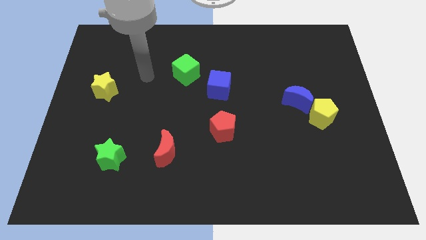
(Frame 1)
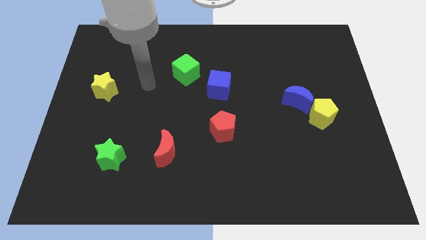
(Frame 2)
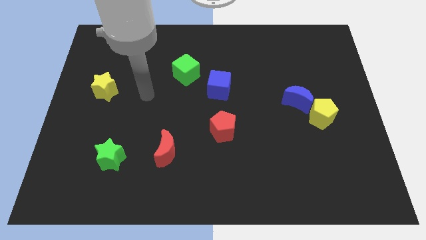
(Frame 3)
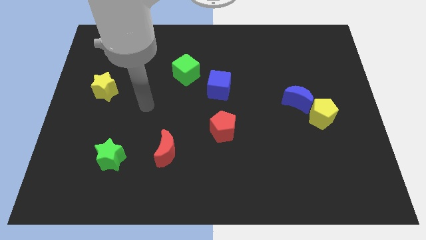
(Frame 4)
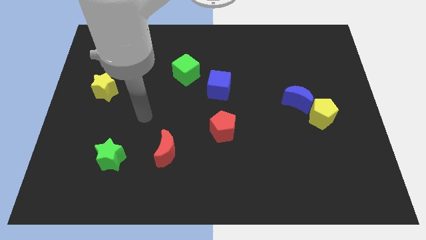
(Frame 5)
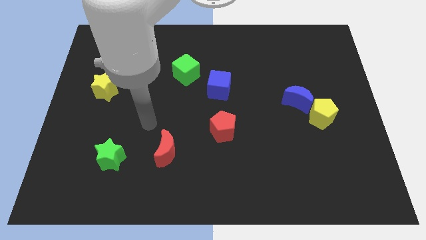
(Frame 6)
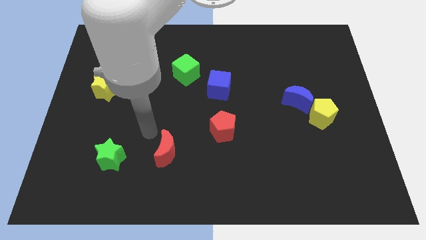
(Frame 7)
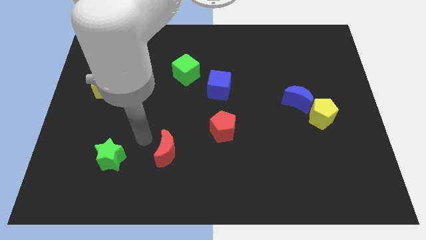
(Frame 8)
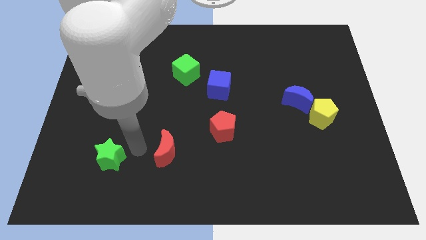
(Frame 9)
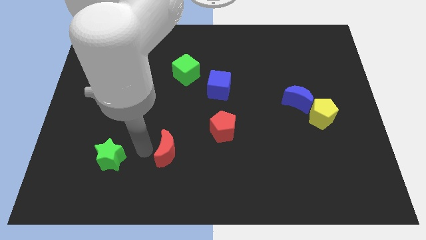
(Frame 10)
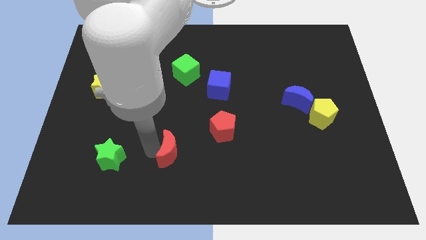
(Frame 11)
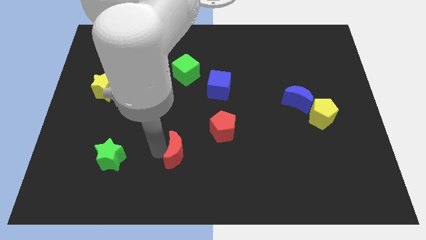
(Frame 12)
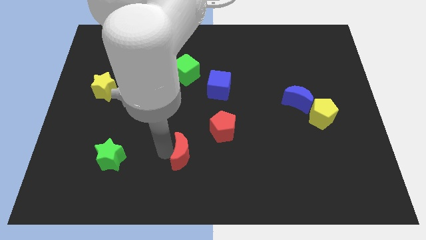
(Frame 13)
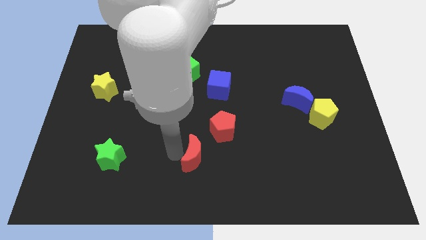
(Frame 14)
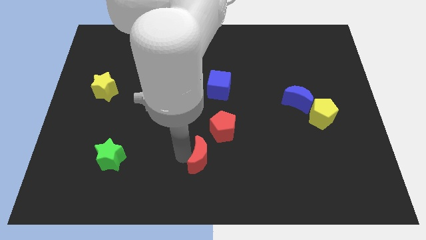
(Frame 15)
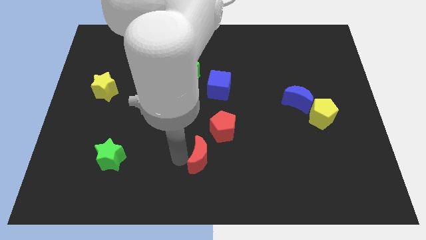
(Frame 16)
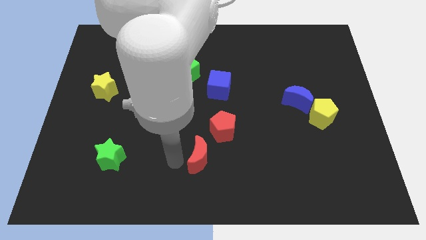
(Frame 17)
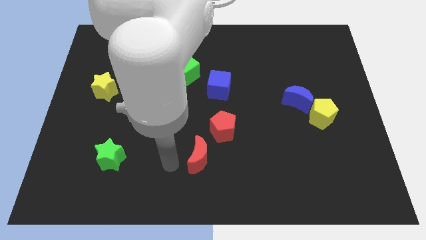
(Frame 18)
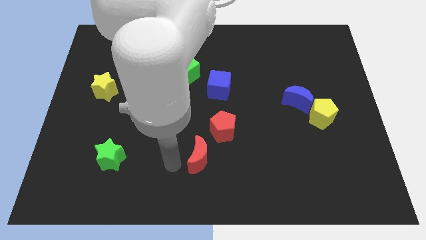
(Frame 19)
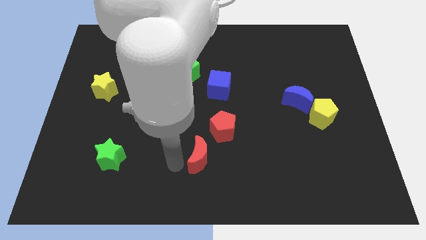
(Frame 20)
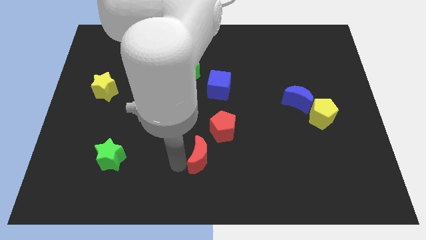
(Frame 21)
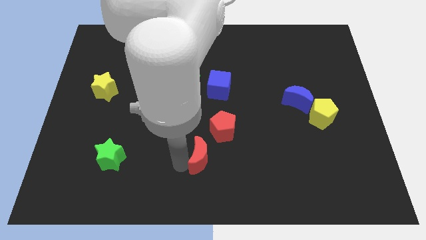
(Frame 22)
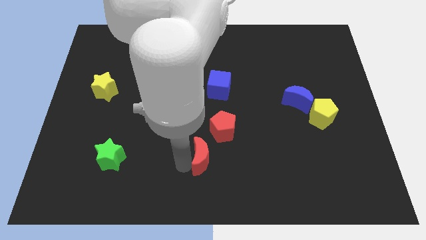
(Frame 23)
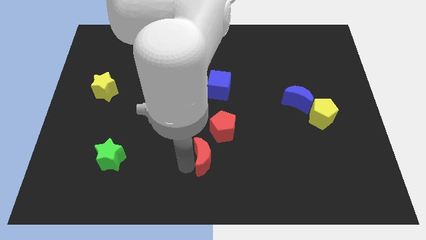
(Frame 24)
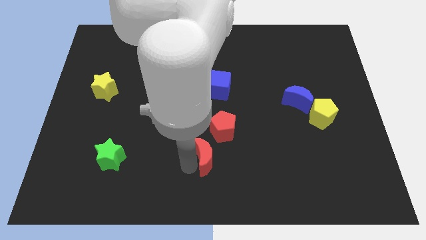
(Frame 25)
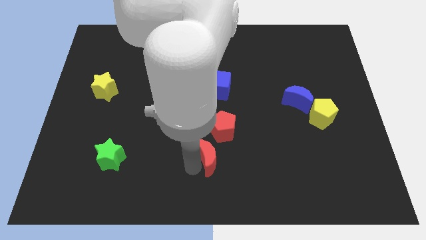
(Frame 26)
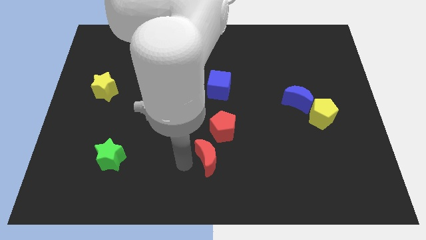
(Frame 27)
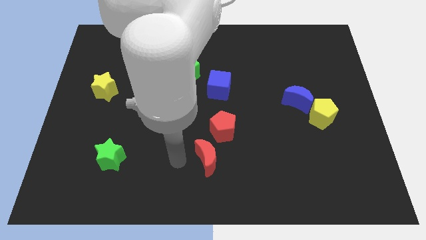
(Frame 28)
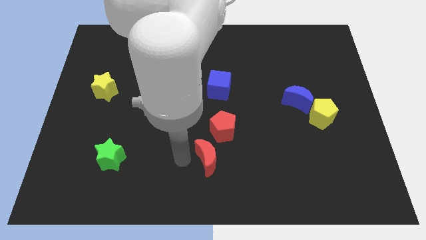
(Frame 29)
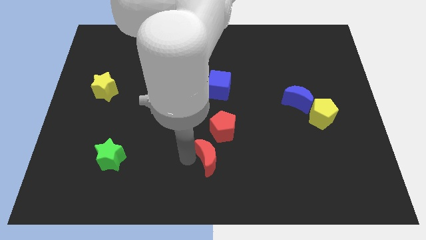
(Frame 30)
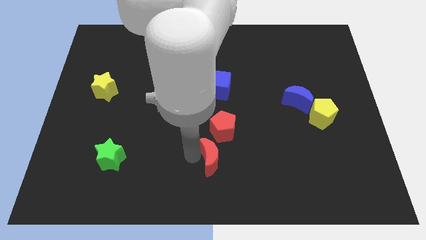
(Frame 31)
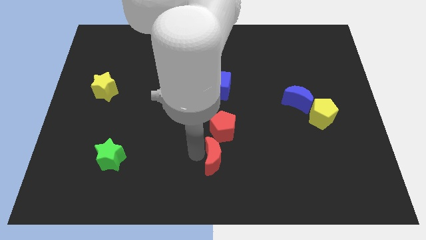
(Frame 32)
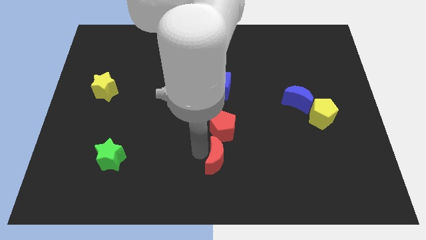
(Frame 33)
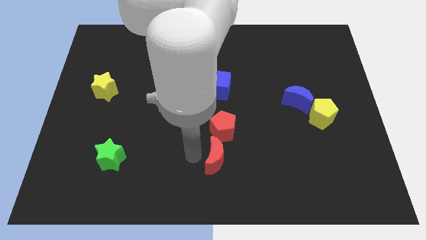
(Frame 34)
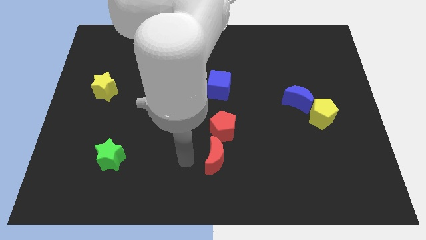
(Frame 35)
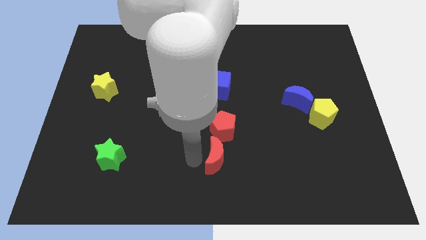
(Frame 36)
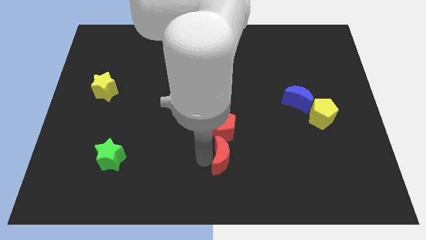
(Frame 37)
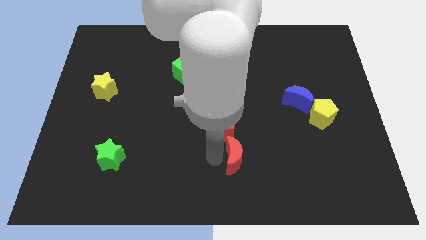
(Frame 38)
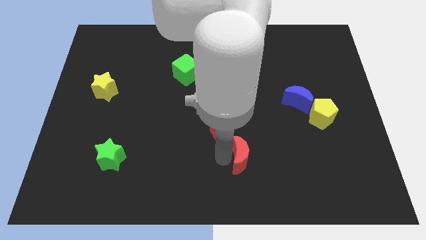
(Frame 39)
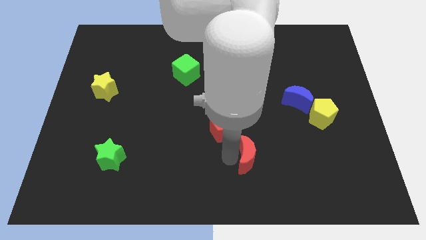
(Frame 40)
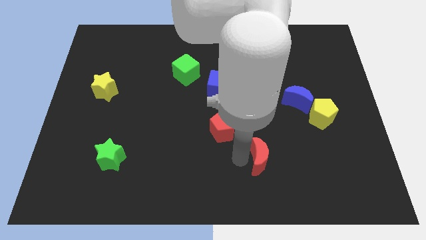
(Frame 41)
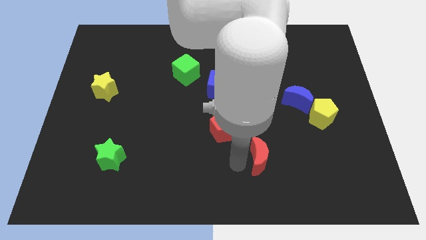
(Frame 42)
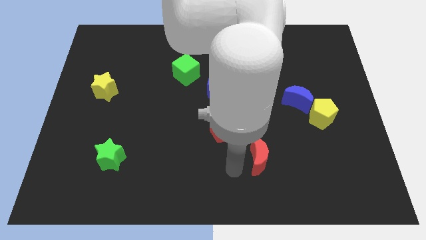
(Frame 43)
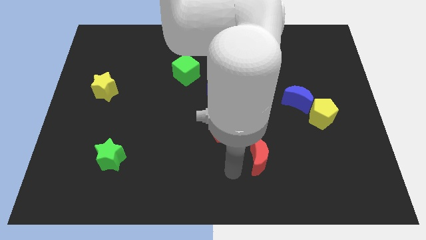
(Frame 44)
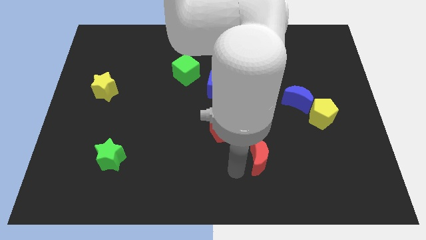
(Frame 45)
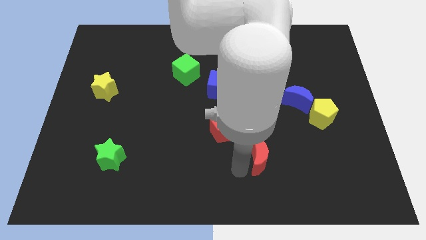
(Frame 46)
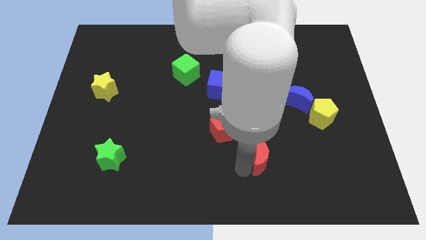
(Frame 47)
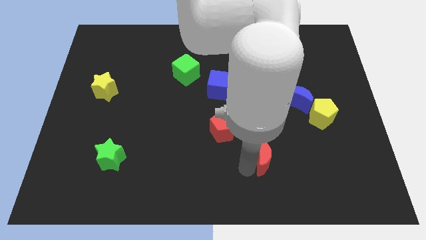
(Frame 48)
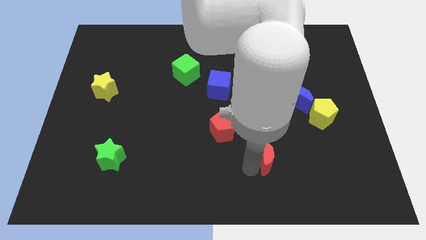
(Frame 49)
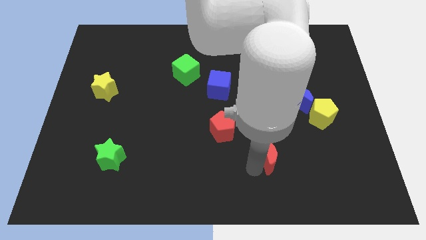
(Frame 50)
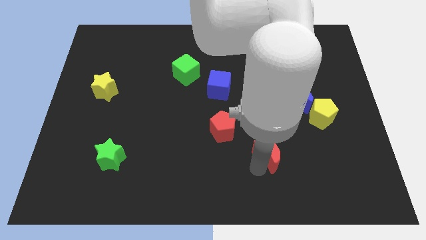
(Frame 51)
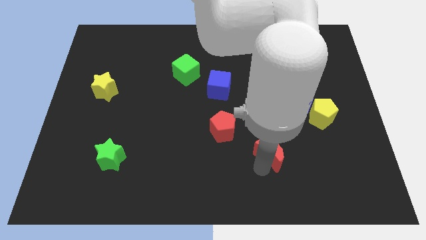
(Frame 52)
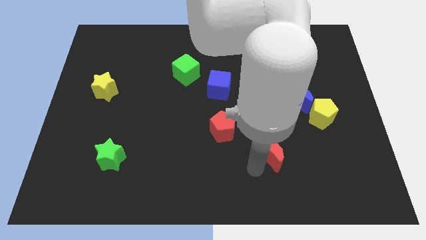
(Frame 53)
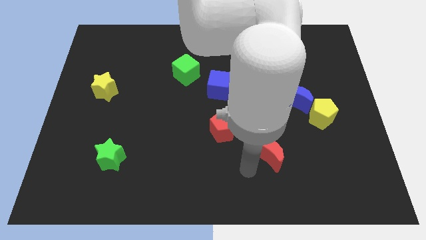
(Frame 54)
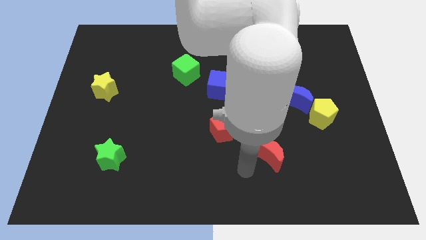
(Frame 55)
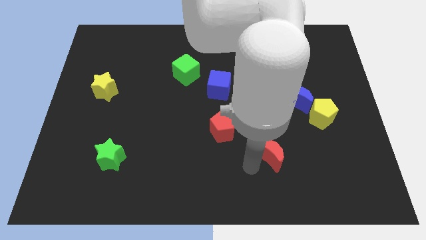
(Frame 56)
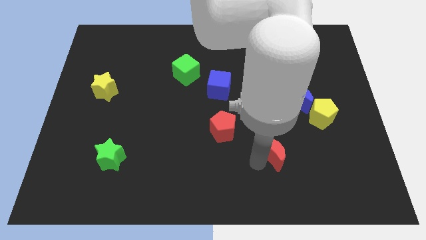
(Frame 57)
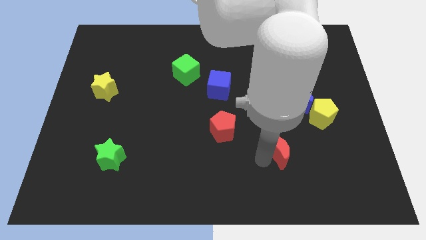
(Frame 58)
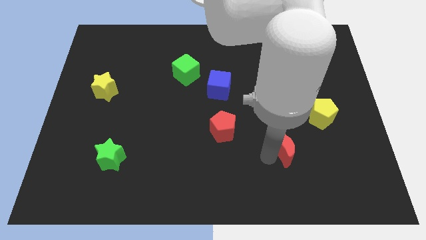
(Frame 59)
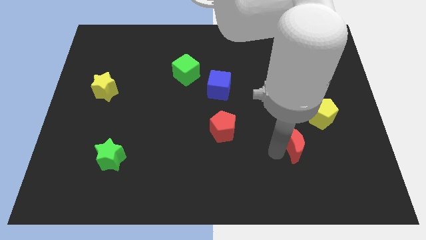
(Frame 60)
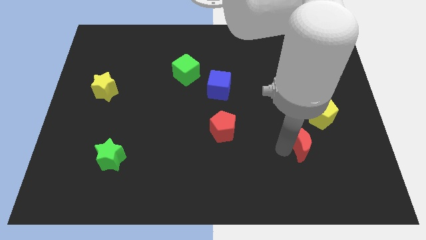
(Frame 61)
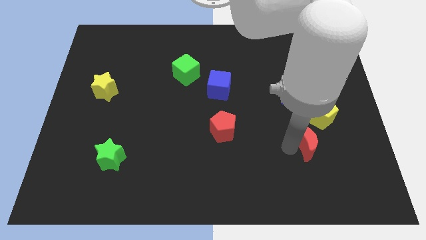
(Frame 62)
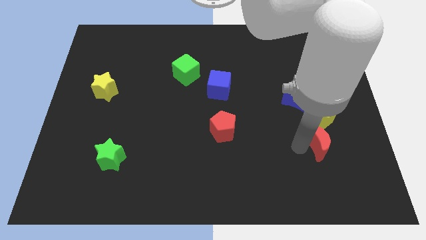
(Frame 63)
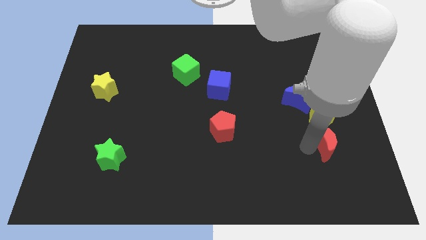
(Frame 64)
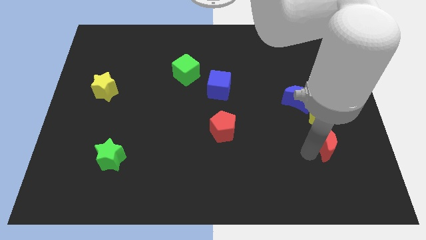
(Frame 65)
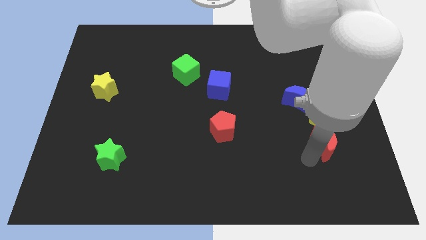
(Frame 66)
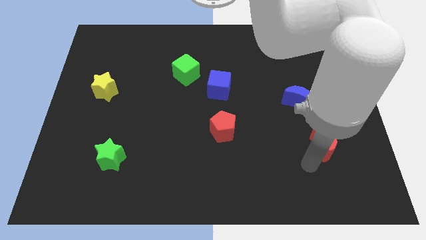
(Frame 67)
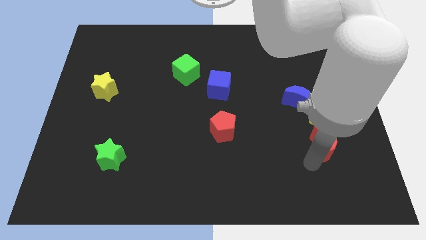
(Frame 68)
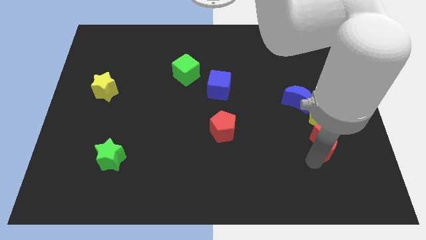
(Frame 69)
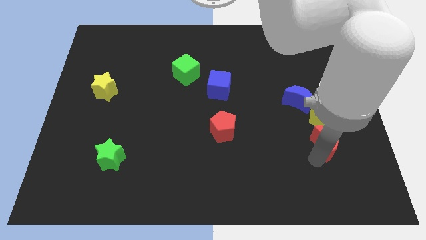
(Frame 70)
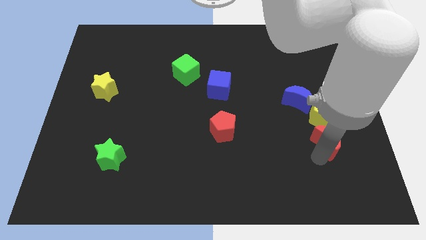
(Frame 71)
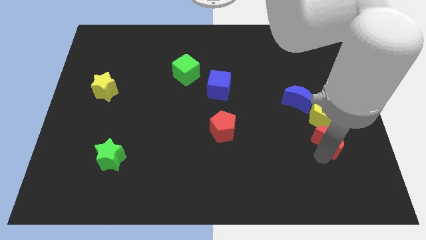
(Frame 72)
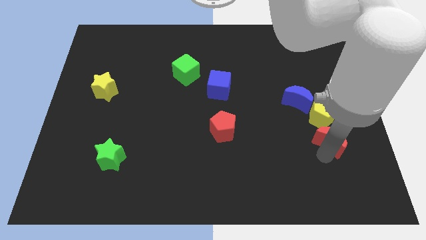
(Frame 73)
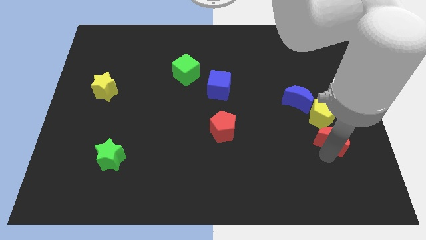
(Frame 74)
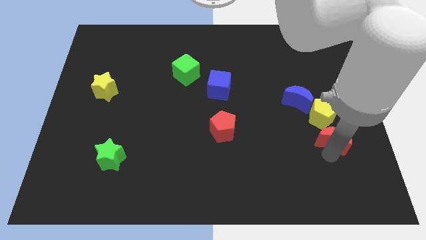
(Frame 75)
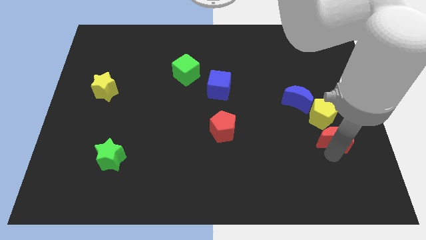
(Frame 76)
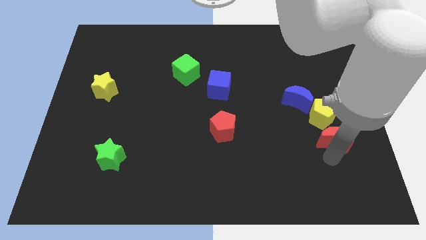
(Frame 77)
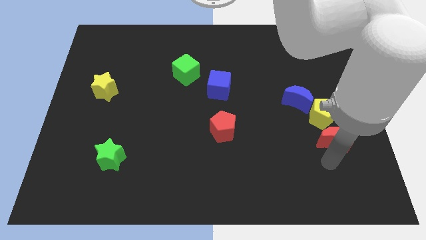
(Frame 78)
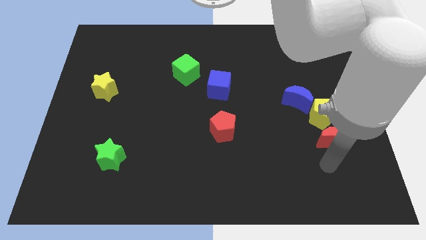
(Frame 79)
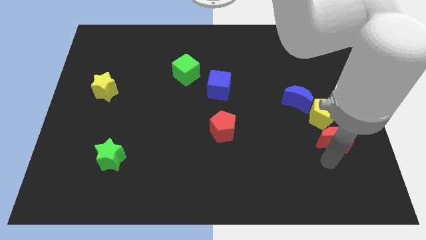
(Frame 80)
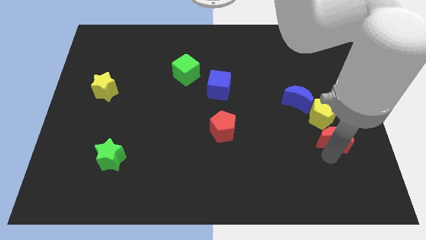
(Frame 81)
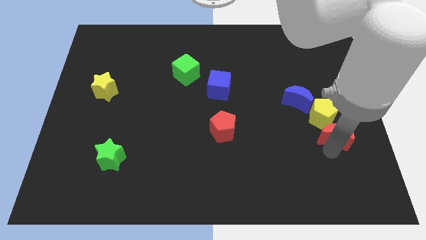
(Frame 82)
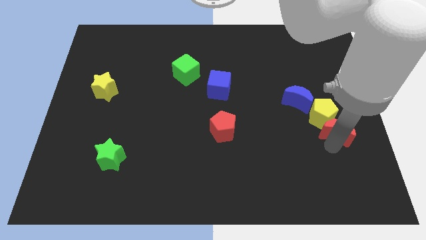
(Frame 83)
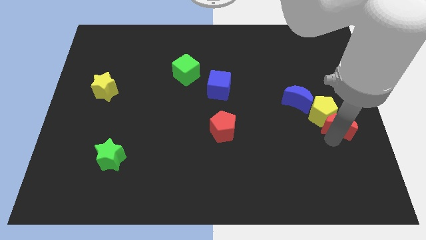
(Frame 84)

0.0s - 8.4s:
push the red moon to the right side of the board
